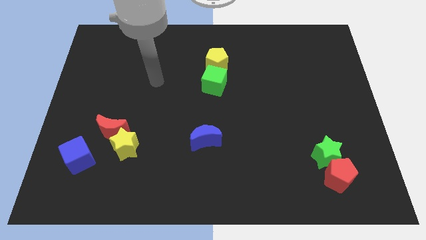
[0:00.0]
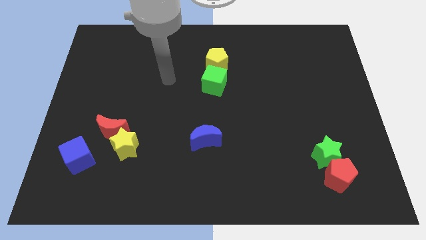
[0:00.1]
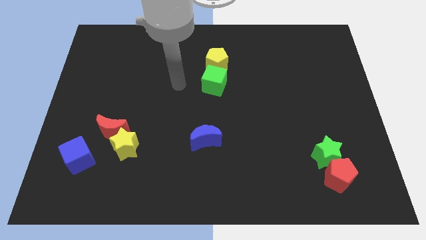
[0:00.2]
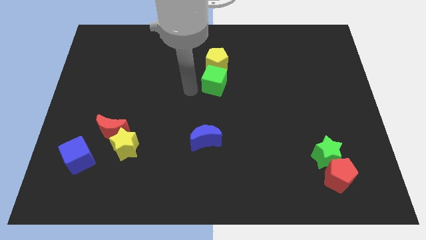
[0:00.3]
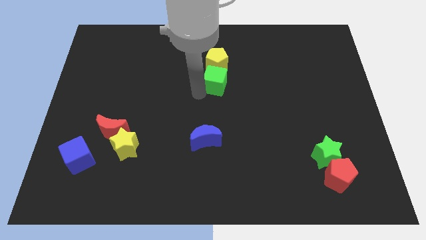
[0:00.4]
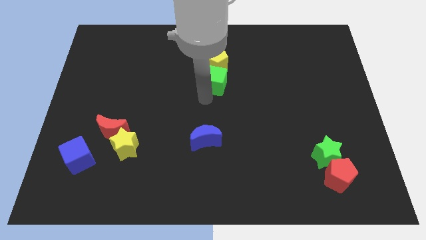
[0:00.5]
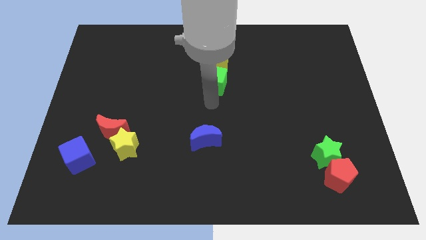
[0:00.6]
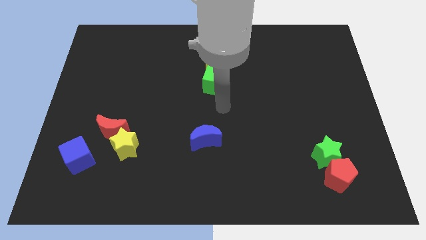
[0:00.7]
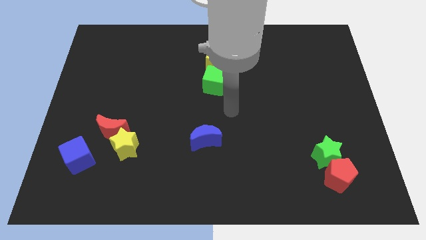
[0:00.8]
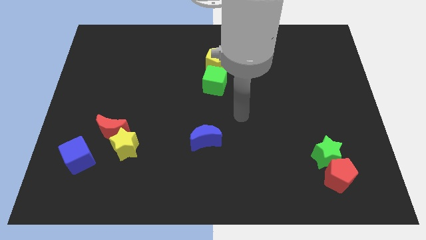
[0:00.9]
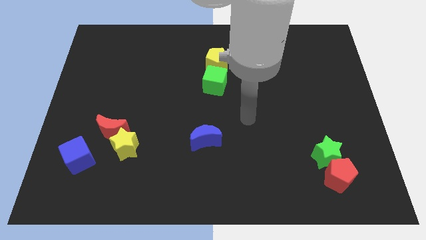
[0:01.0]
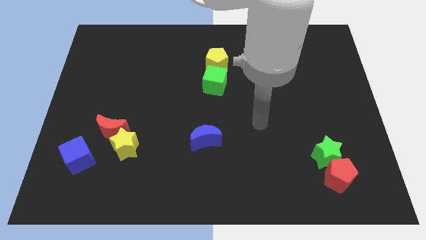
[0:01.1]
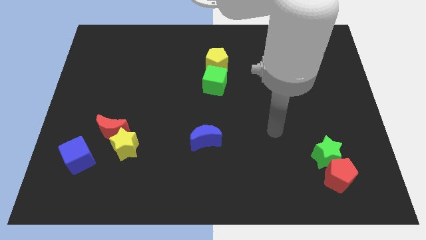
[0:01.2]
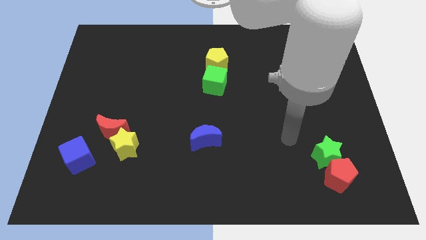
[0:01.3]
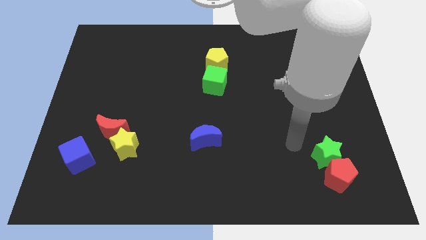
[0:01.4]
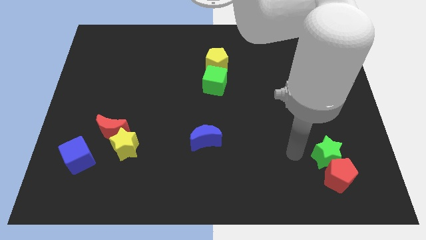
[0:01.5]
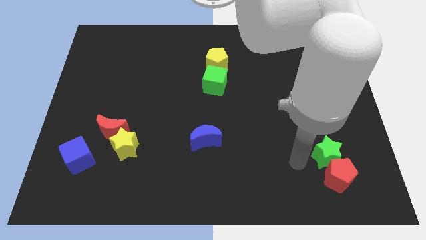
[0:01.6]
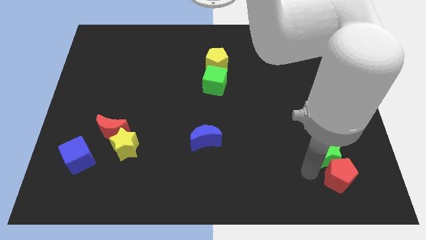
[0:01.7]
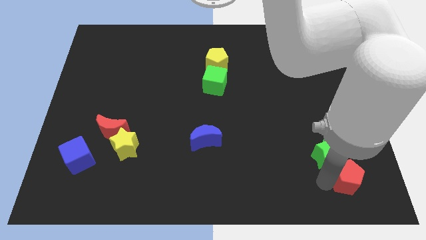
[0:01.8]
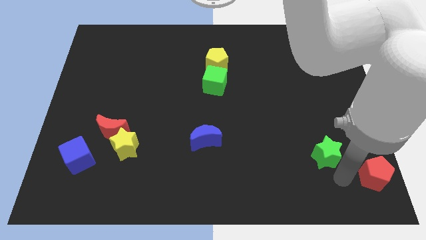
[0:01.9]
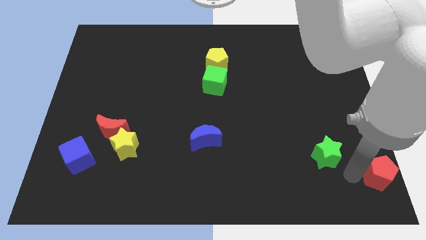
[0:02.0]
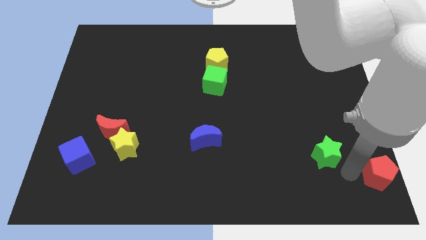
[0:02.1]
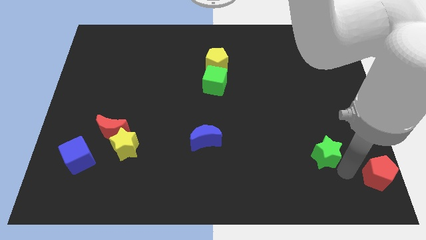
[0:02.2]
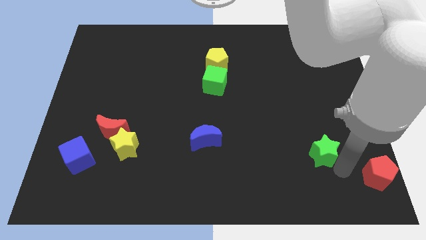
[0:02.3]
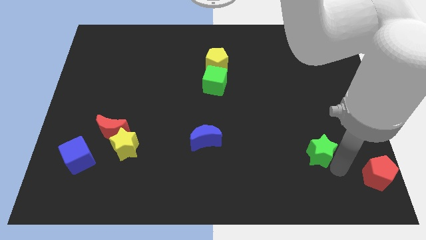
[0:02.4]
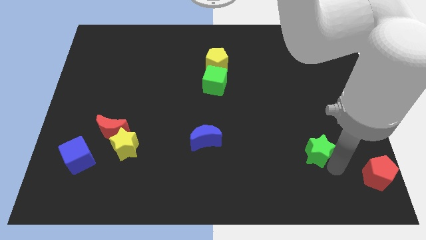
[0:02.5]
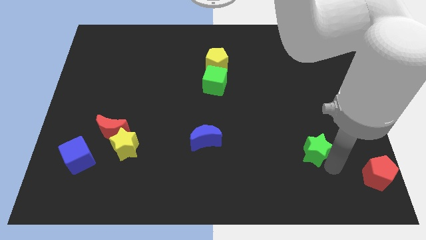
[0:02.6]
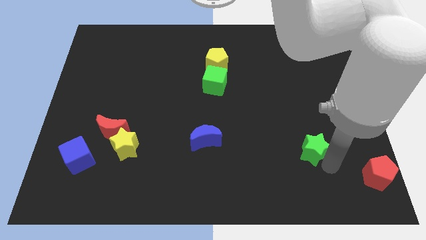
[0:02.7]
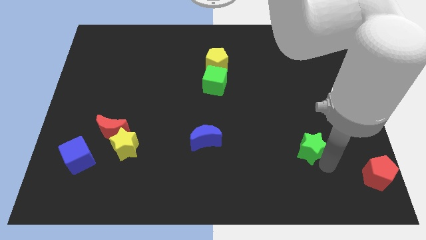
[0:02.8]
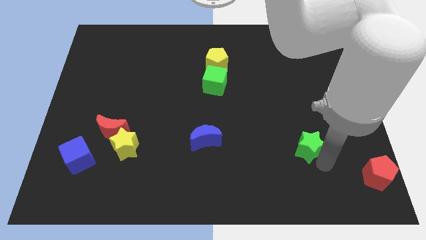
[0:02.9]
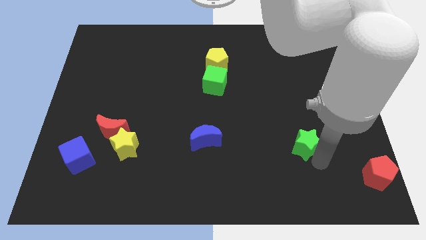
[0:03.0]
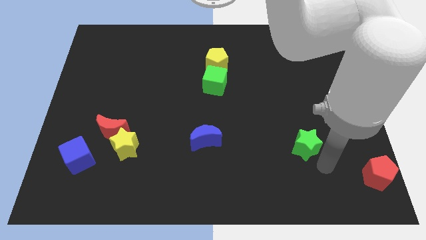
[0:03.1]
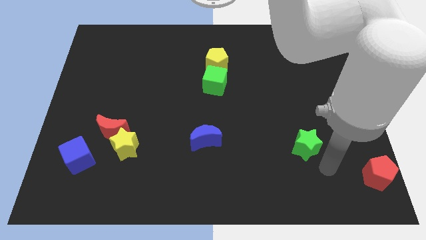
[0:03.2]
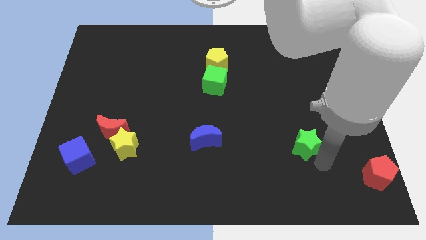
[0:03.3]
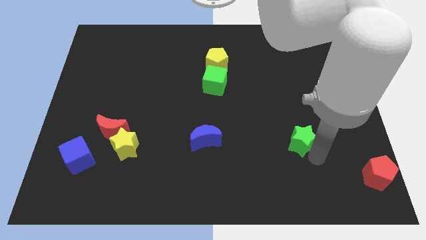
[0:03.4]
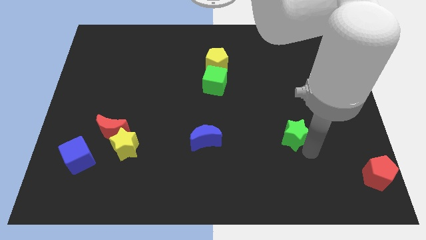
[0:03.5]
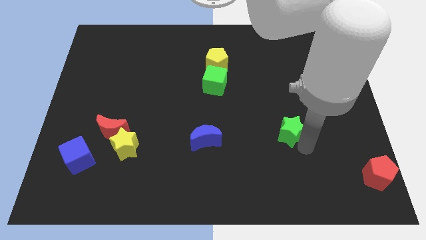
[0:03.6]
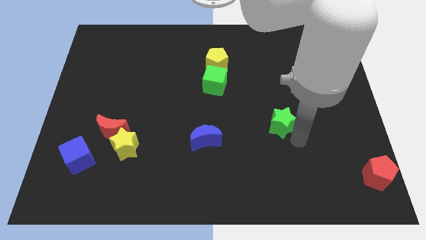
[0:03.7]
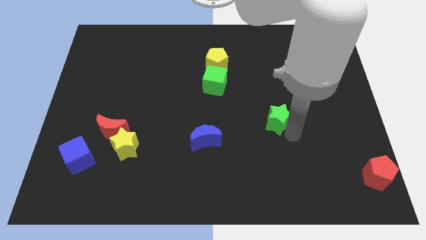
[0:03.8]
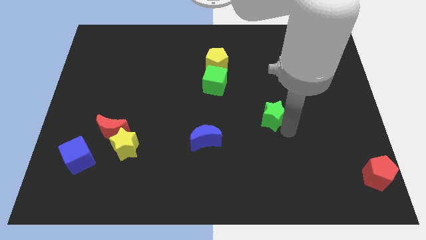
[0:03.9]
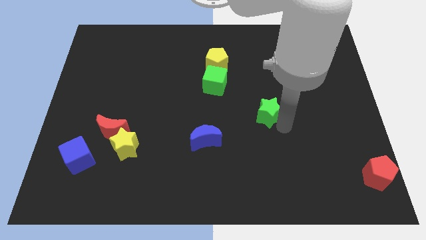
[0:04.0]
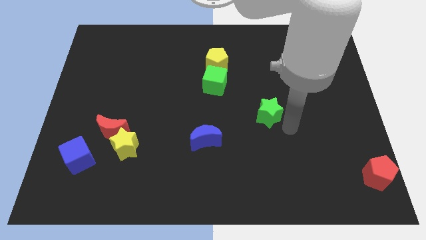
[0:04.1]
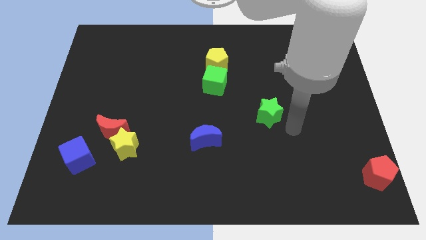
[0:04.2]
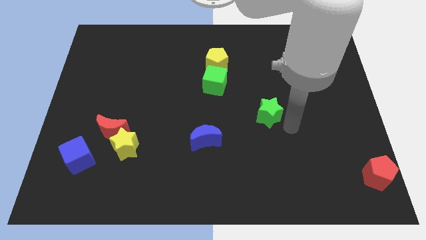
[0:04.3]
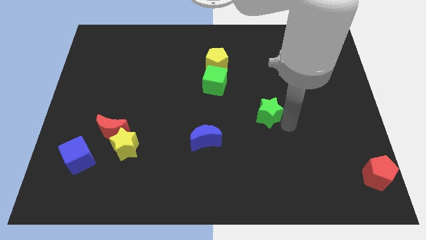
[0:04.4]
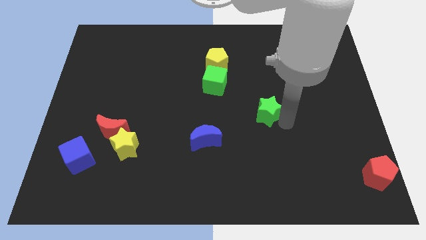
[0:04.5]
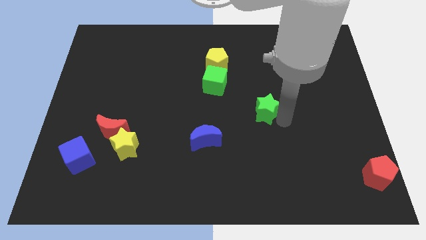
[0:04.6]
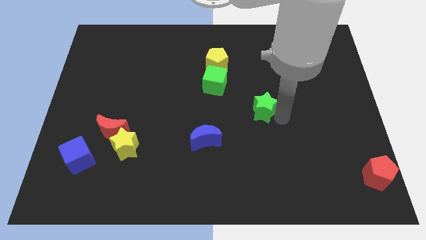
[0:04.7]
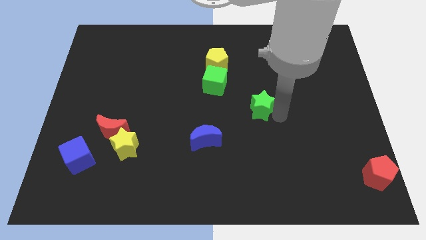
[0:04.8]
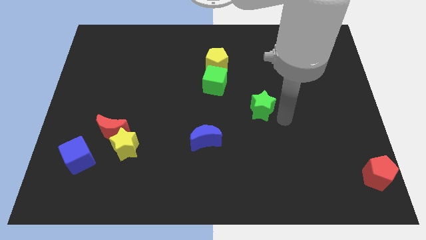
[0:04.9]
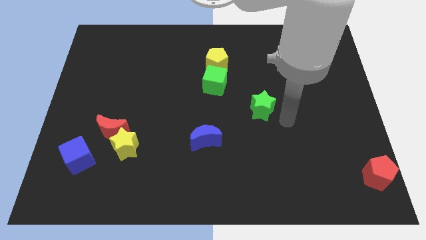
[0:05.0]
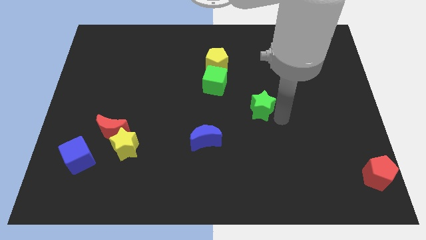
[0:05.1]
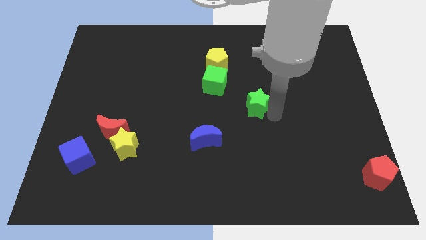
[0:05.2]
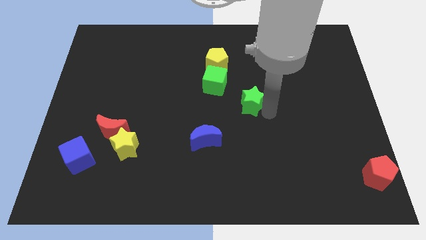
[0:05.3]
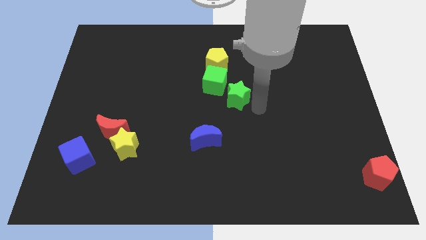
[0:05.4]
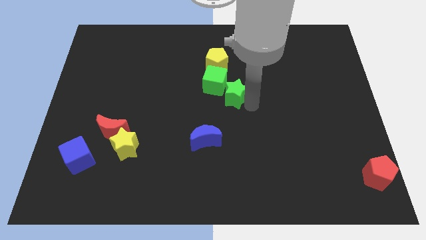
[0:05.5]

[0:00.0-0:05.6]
push the green star close to the green cube

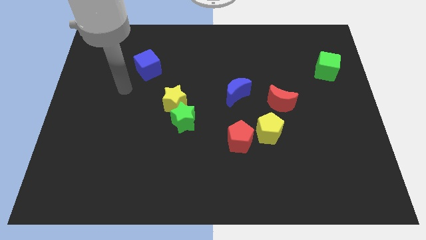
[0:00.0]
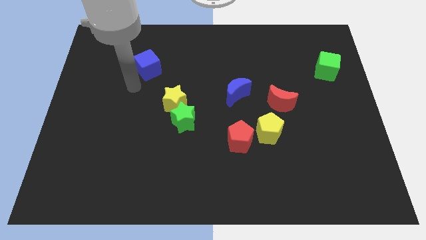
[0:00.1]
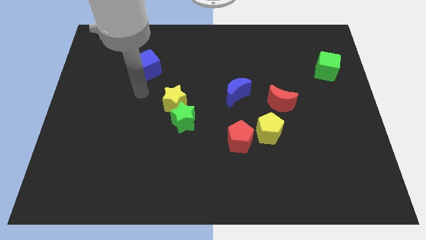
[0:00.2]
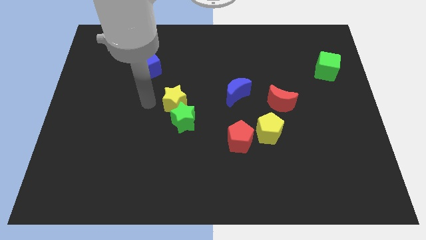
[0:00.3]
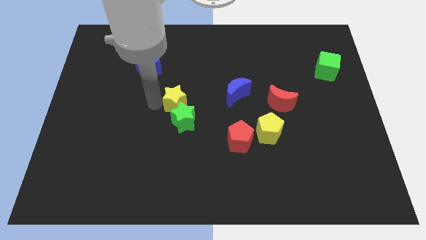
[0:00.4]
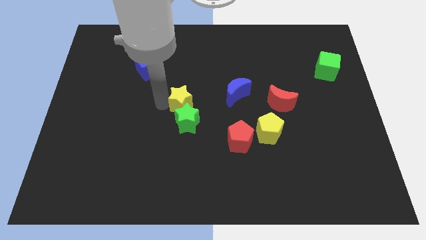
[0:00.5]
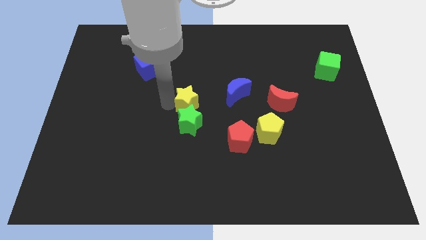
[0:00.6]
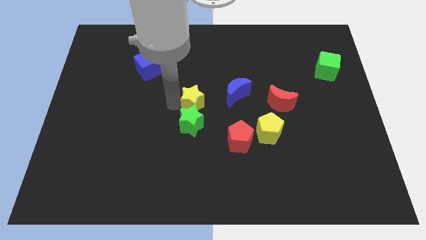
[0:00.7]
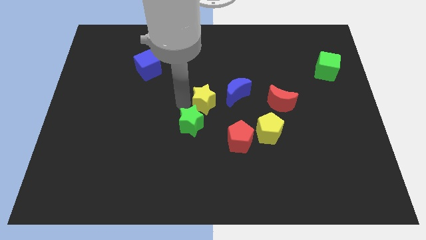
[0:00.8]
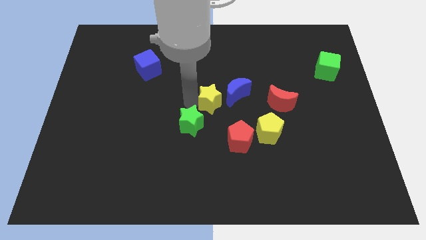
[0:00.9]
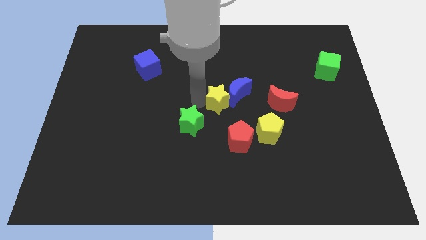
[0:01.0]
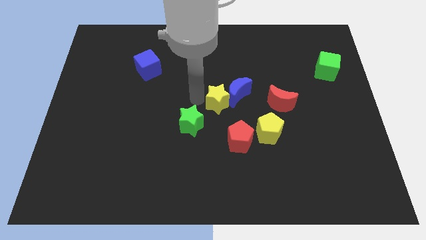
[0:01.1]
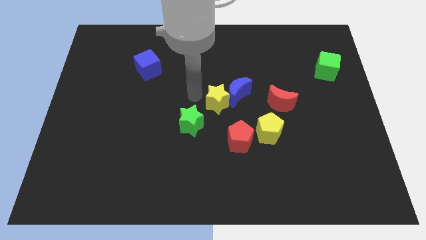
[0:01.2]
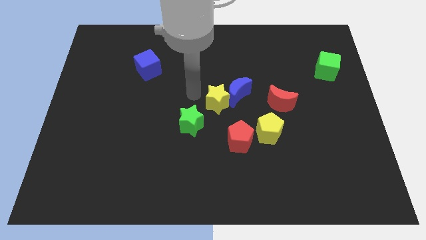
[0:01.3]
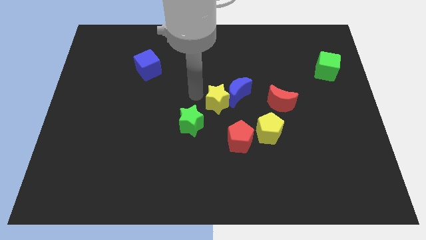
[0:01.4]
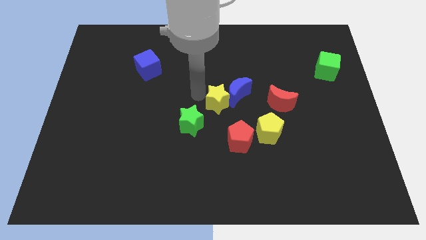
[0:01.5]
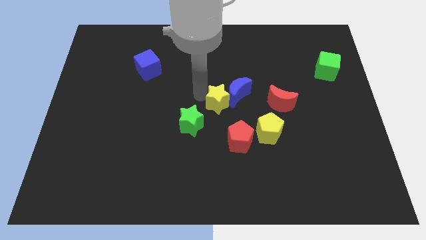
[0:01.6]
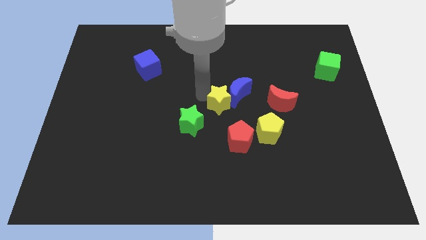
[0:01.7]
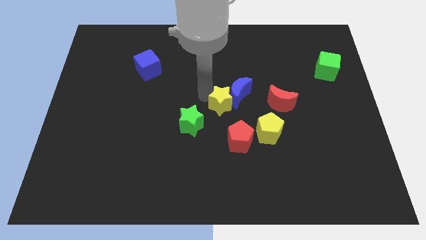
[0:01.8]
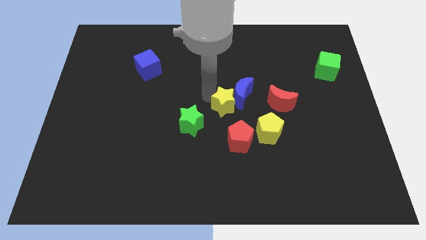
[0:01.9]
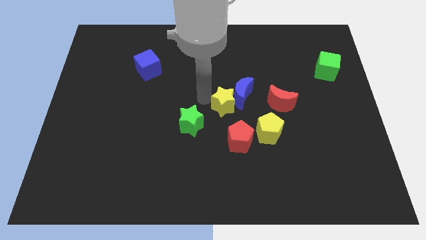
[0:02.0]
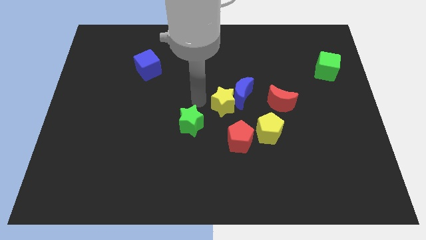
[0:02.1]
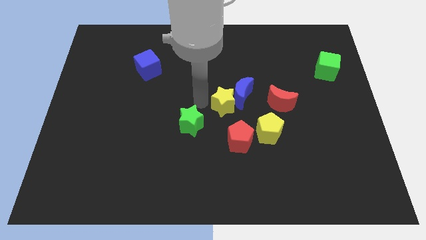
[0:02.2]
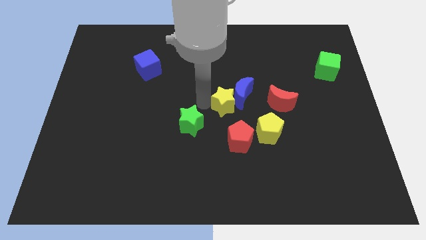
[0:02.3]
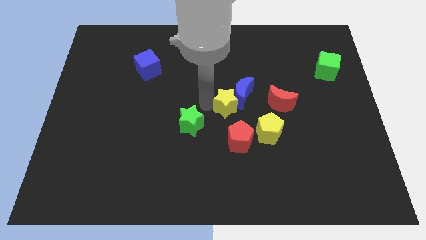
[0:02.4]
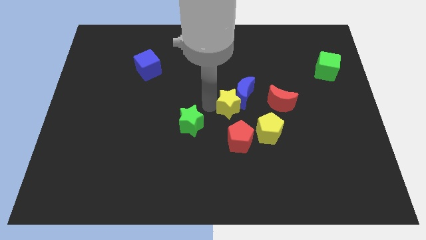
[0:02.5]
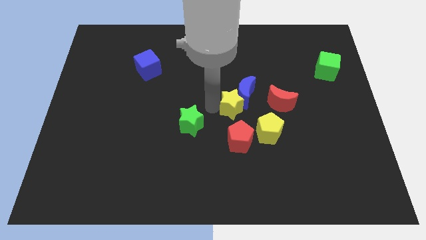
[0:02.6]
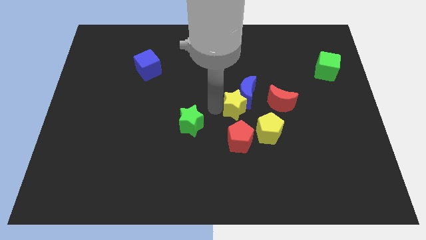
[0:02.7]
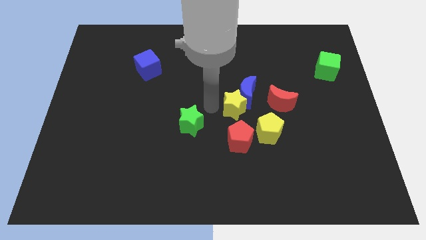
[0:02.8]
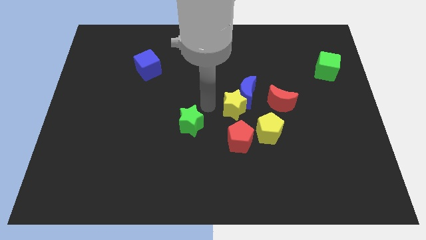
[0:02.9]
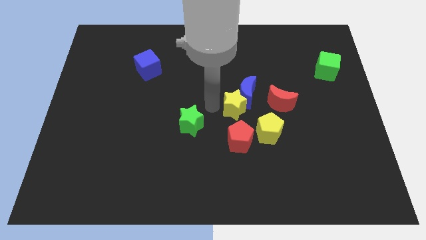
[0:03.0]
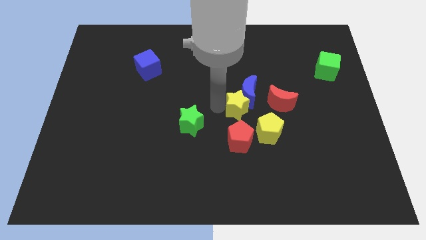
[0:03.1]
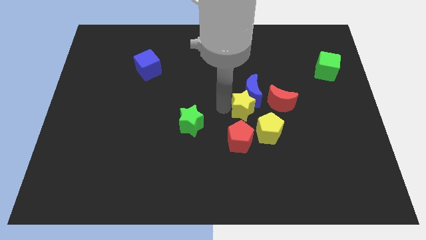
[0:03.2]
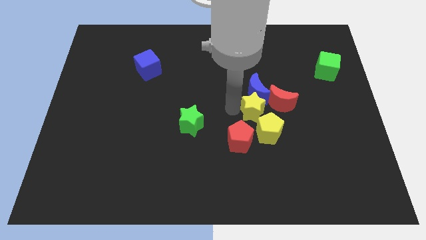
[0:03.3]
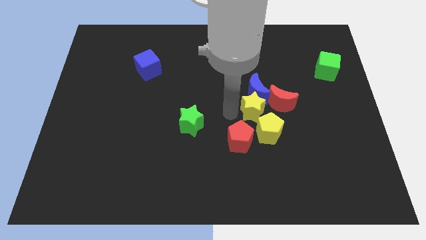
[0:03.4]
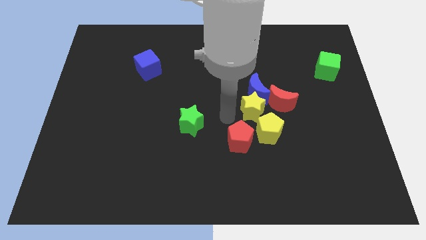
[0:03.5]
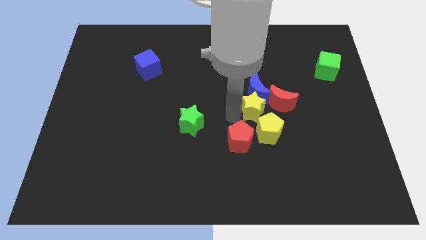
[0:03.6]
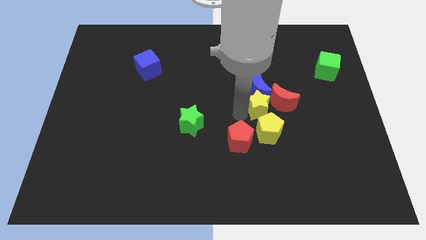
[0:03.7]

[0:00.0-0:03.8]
put the yellow star towards the red moon
